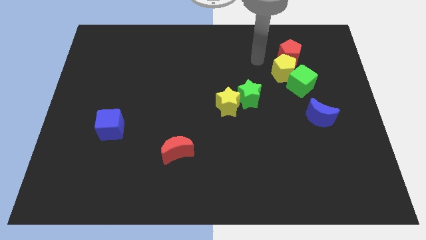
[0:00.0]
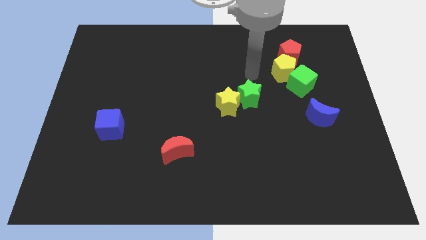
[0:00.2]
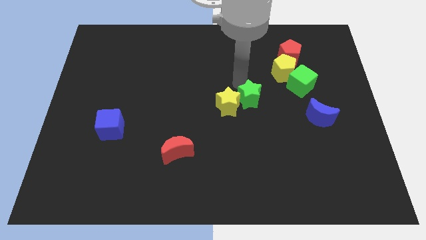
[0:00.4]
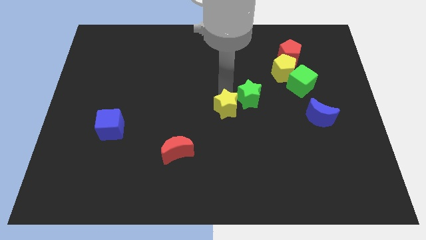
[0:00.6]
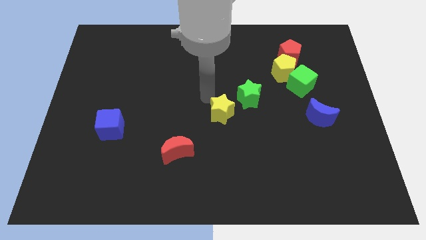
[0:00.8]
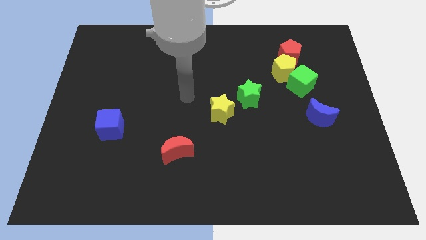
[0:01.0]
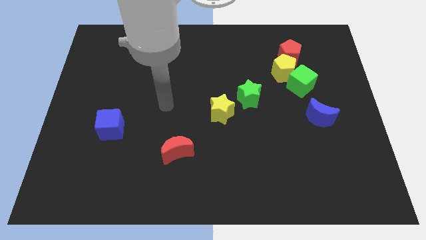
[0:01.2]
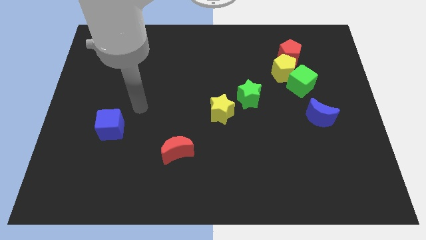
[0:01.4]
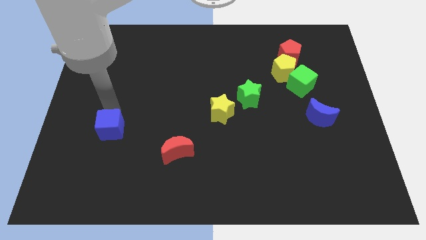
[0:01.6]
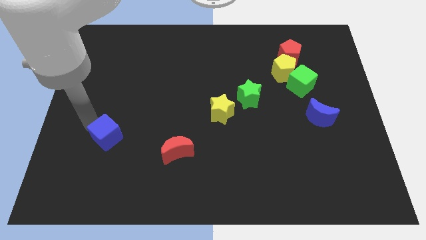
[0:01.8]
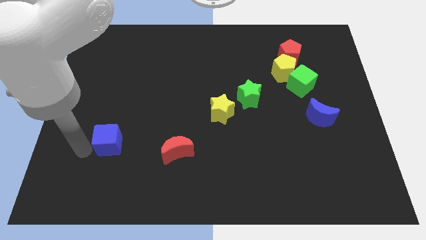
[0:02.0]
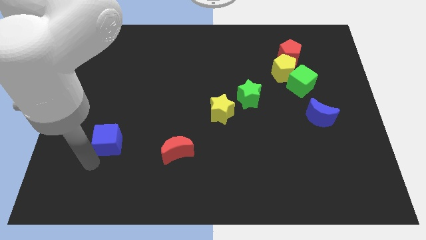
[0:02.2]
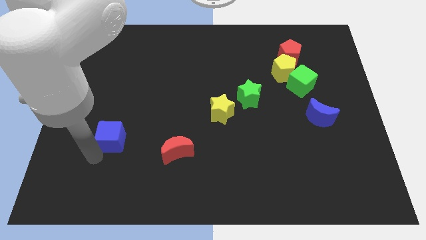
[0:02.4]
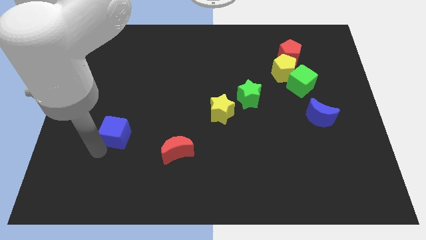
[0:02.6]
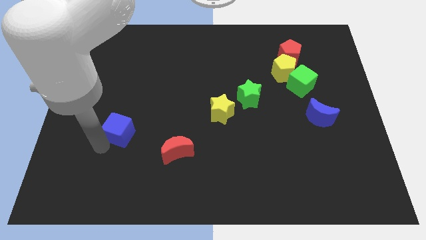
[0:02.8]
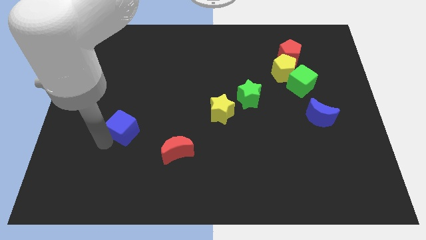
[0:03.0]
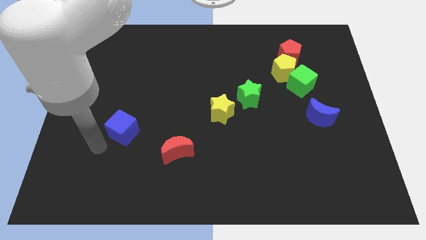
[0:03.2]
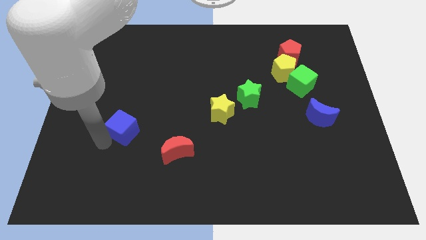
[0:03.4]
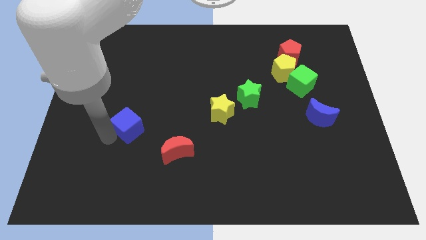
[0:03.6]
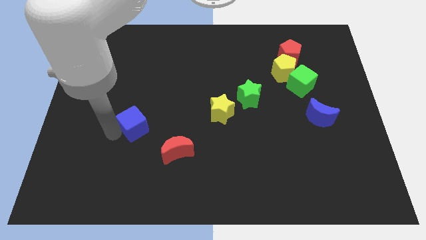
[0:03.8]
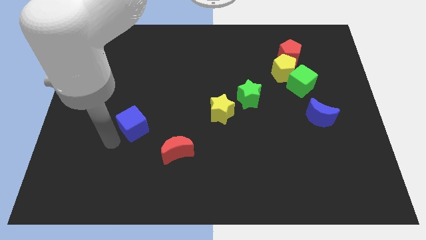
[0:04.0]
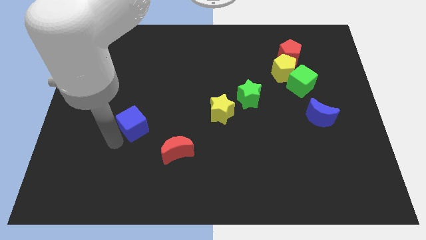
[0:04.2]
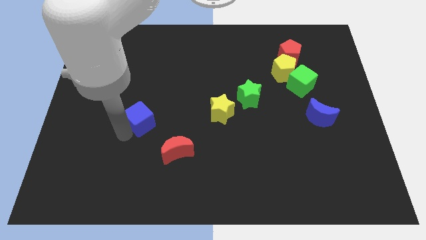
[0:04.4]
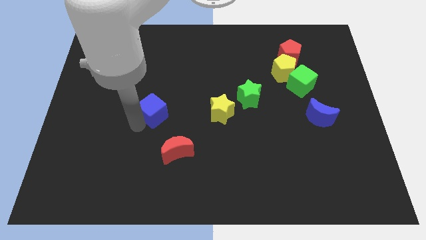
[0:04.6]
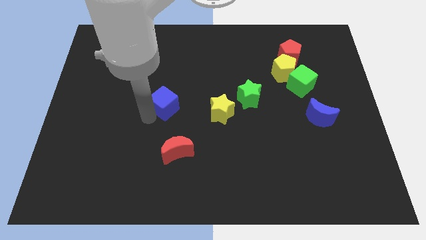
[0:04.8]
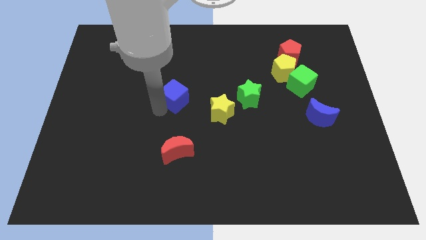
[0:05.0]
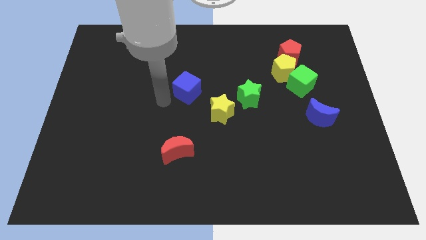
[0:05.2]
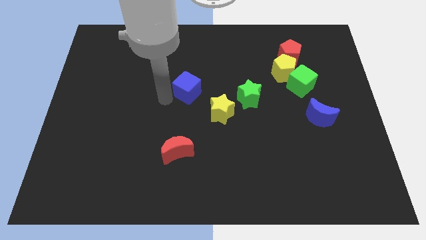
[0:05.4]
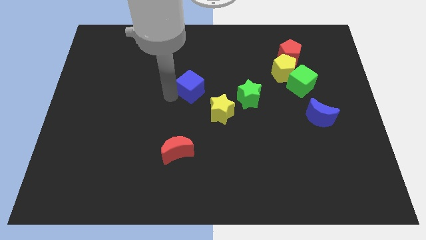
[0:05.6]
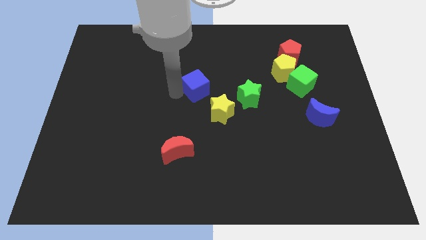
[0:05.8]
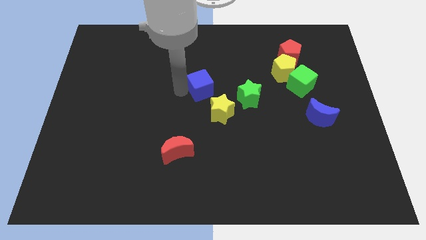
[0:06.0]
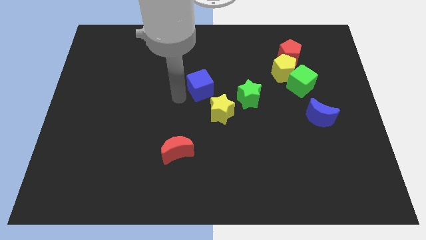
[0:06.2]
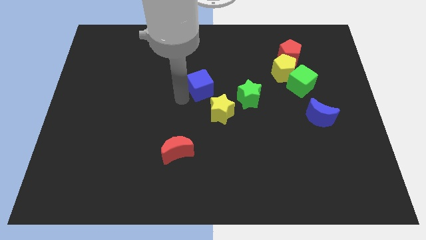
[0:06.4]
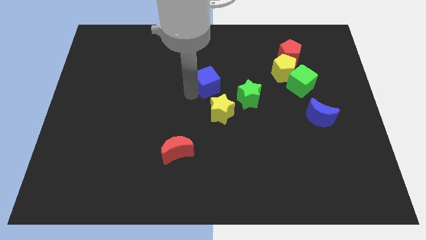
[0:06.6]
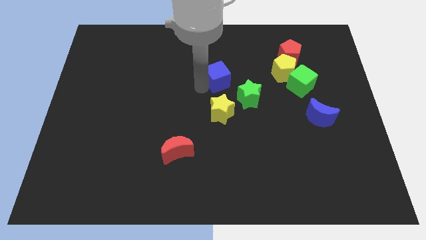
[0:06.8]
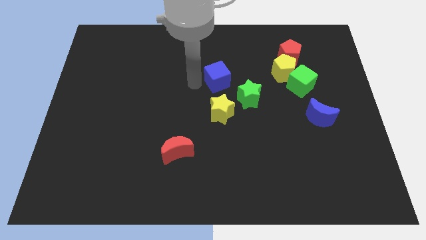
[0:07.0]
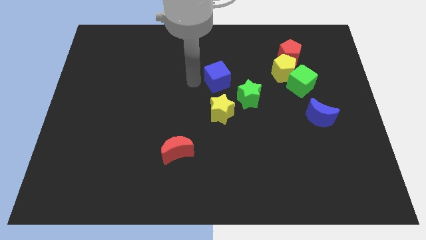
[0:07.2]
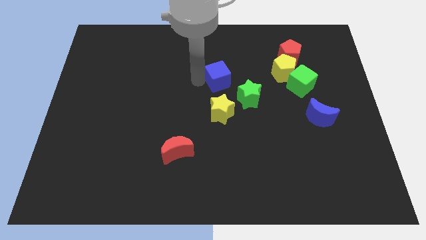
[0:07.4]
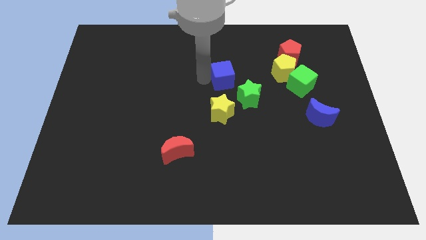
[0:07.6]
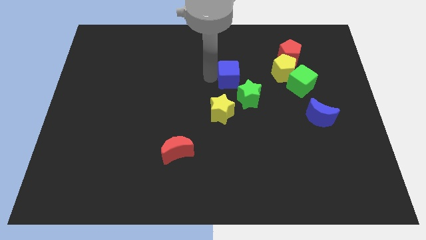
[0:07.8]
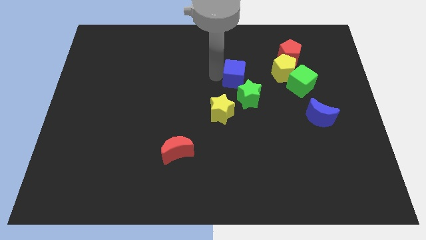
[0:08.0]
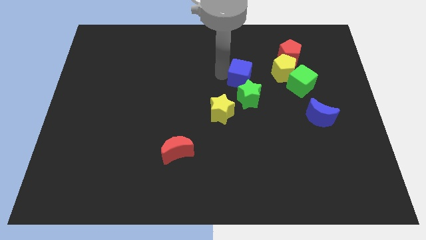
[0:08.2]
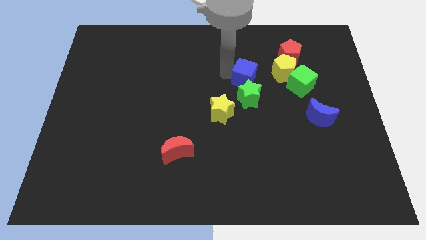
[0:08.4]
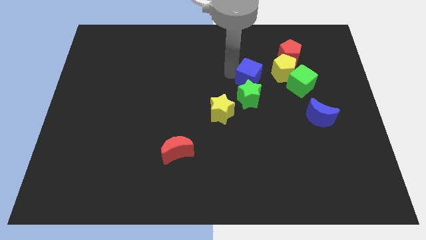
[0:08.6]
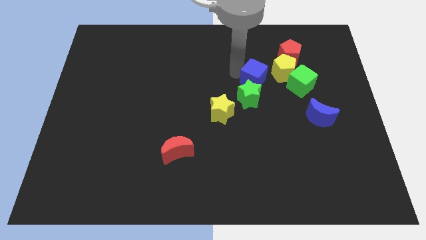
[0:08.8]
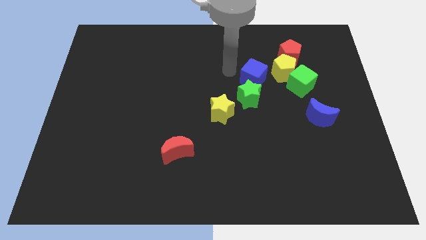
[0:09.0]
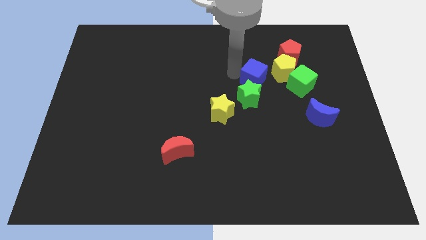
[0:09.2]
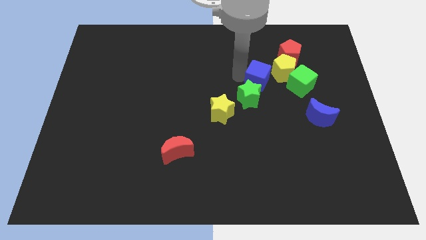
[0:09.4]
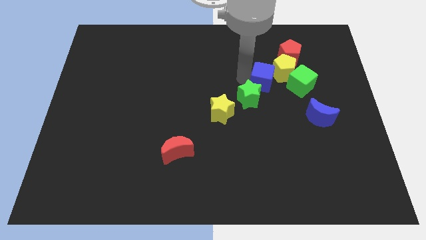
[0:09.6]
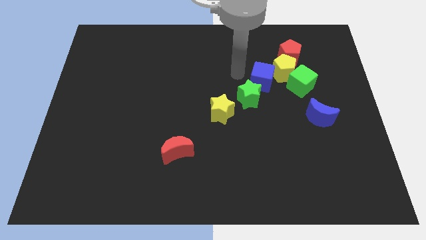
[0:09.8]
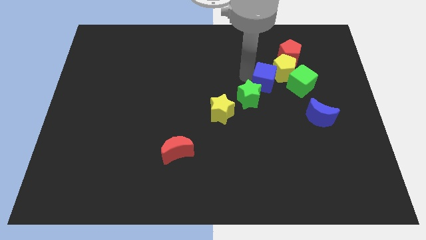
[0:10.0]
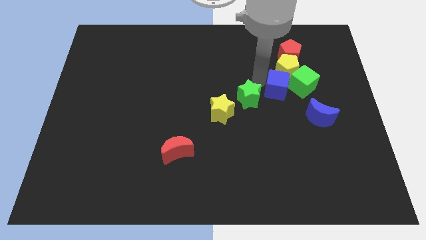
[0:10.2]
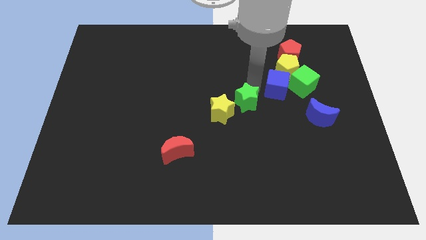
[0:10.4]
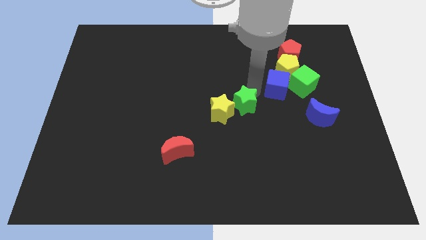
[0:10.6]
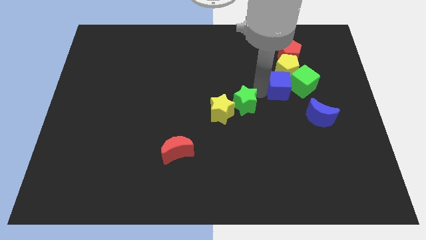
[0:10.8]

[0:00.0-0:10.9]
move the blue cube to the green cube

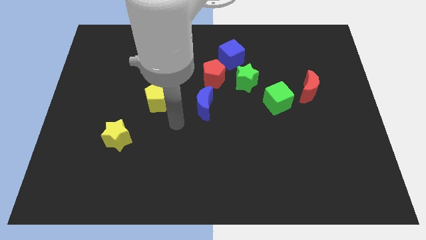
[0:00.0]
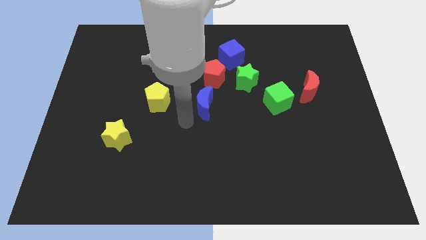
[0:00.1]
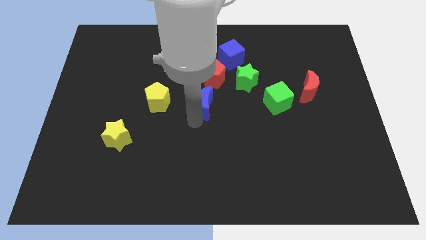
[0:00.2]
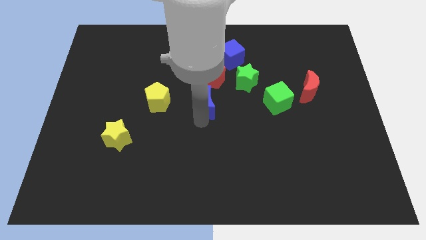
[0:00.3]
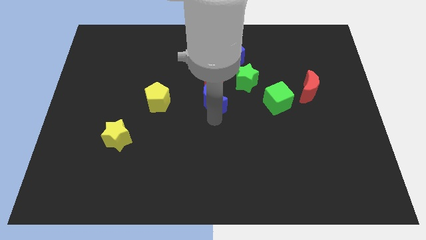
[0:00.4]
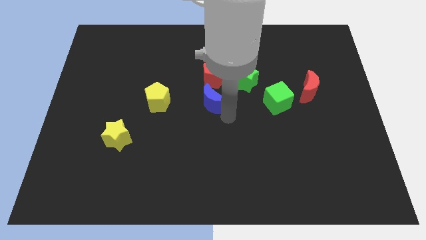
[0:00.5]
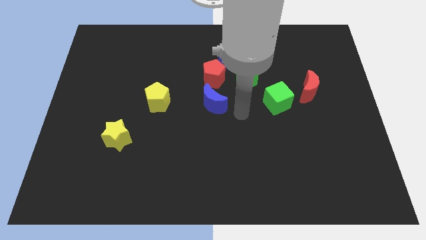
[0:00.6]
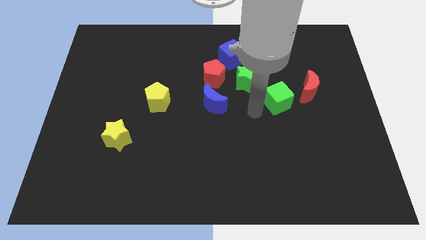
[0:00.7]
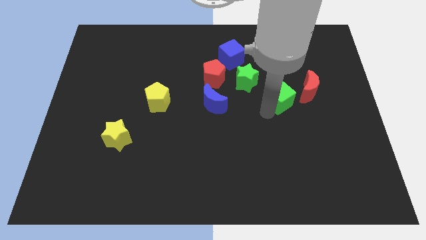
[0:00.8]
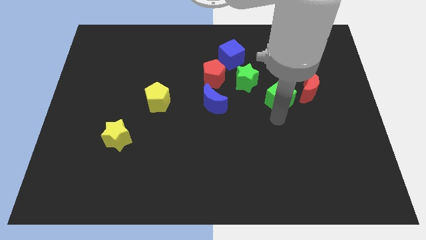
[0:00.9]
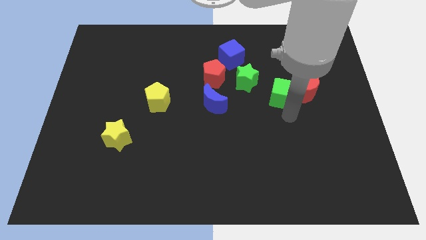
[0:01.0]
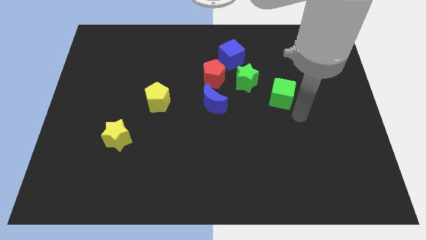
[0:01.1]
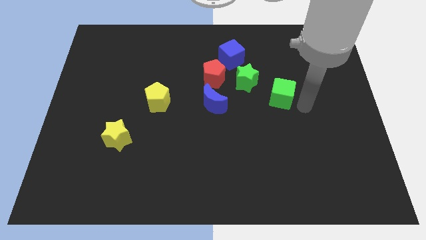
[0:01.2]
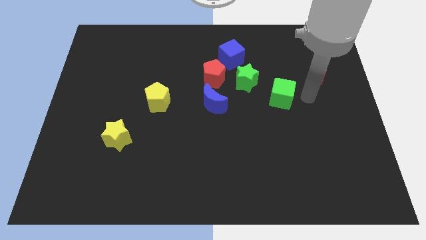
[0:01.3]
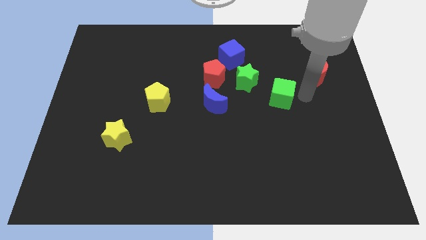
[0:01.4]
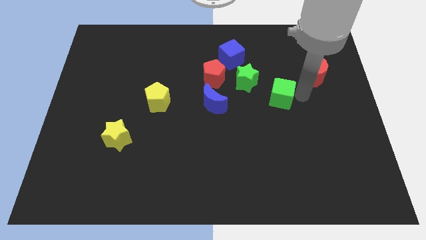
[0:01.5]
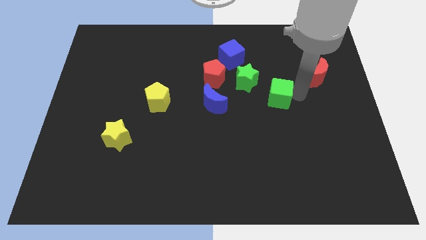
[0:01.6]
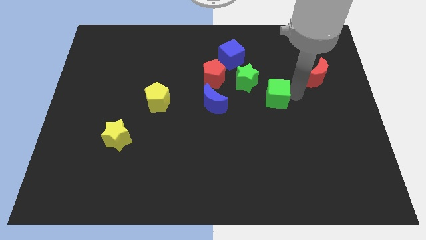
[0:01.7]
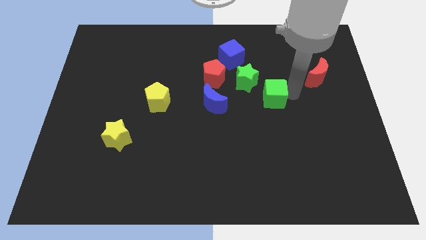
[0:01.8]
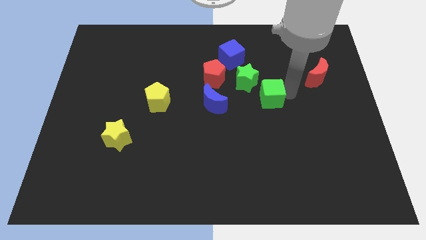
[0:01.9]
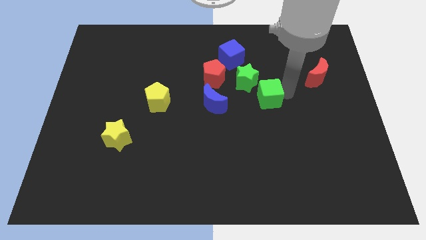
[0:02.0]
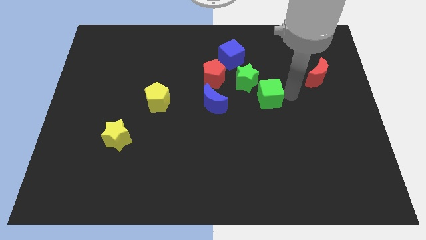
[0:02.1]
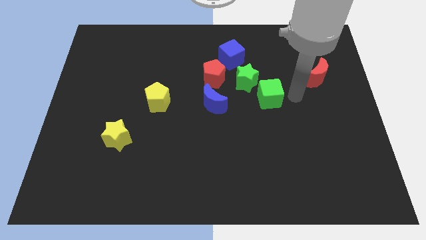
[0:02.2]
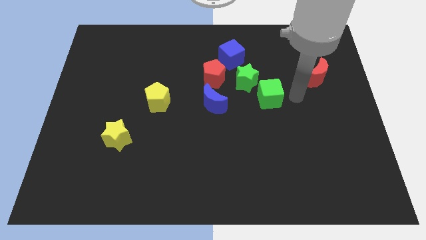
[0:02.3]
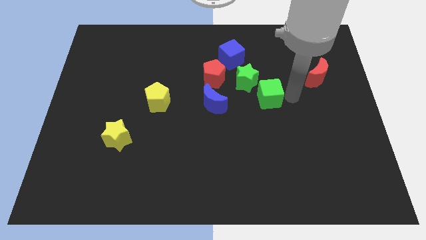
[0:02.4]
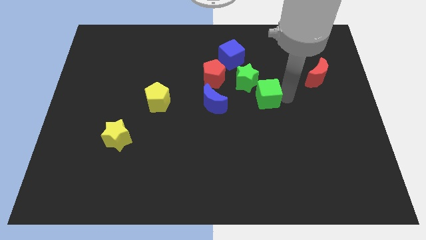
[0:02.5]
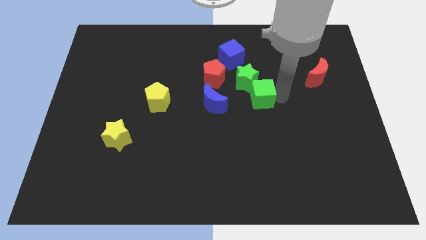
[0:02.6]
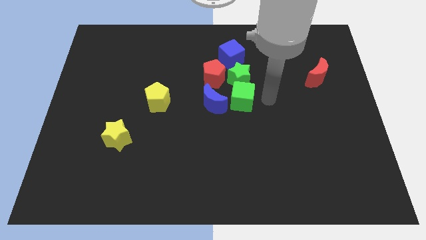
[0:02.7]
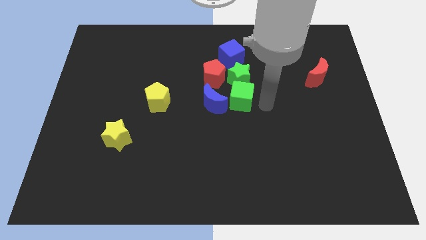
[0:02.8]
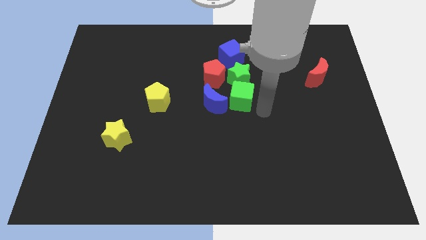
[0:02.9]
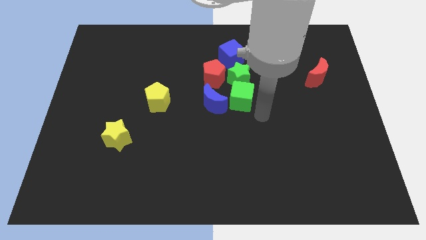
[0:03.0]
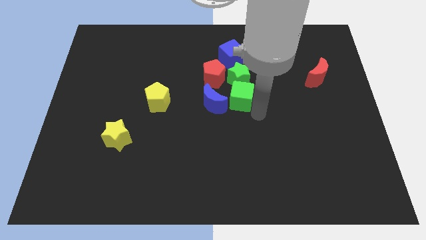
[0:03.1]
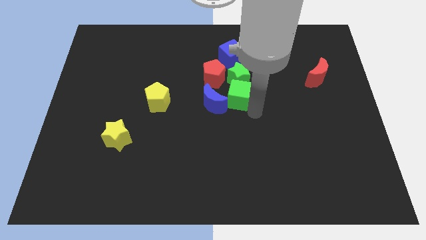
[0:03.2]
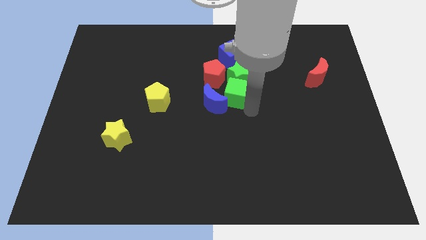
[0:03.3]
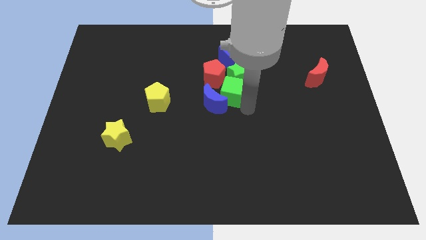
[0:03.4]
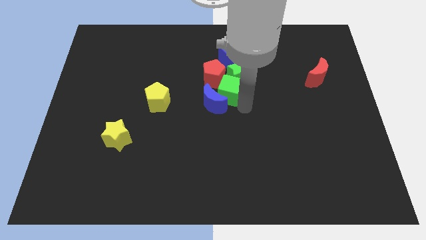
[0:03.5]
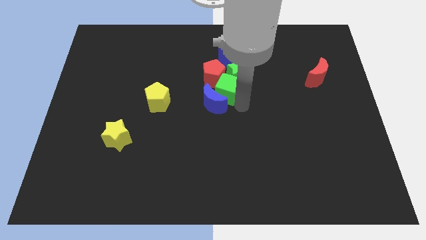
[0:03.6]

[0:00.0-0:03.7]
put the green cube to the red pentagon
